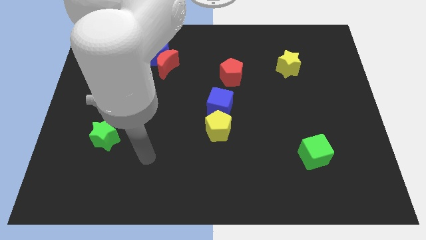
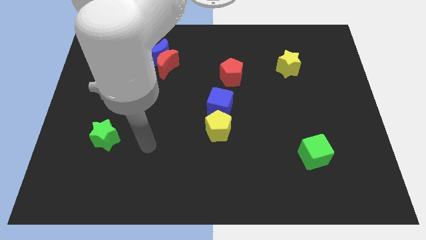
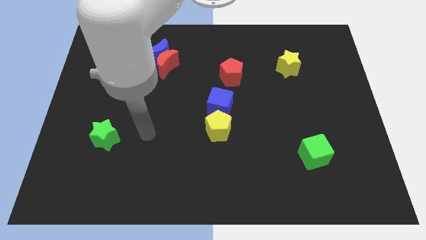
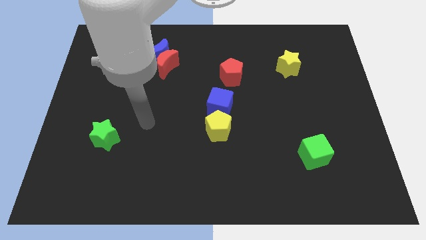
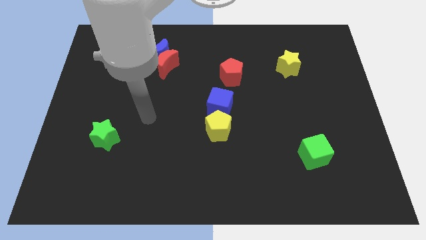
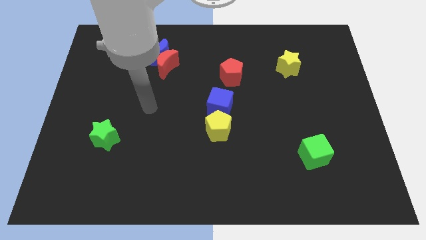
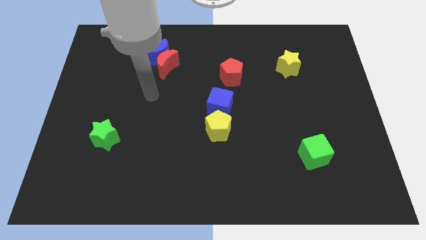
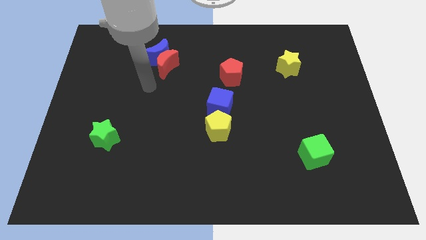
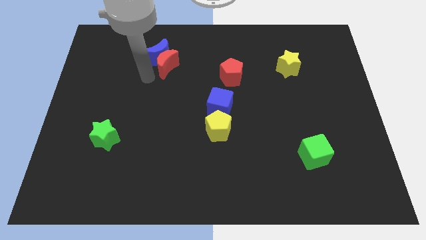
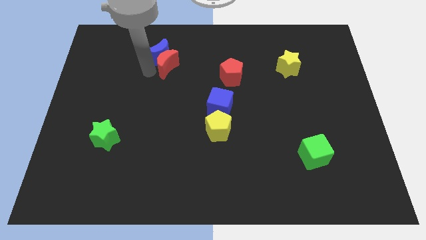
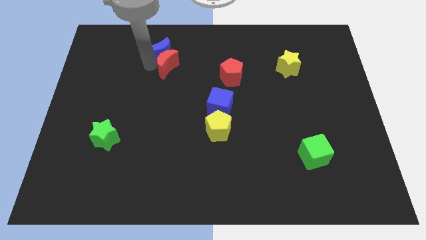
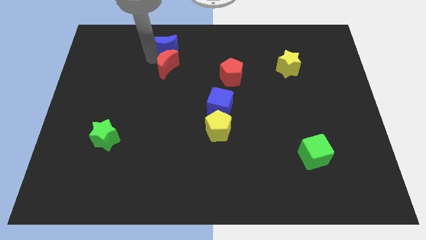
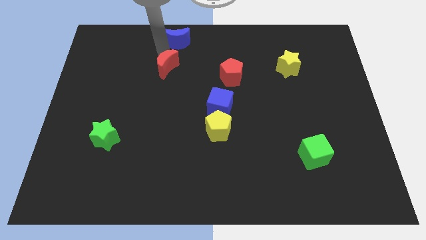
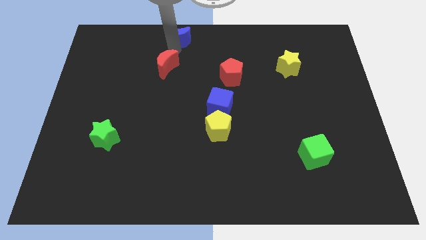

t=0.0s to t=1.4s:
move the red moon away from the blue moon

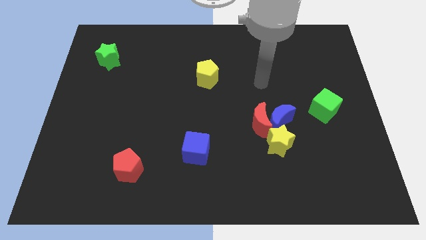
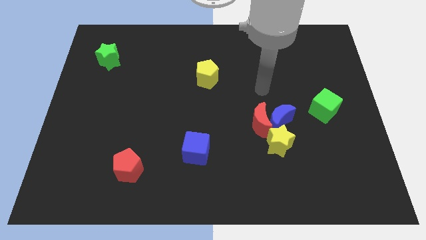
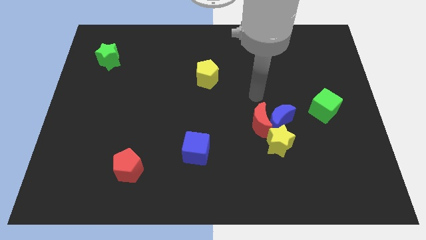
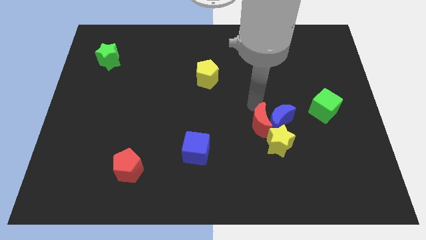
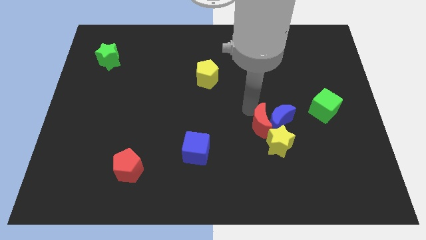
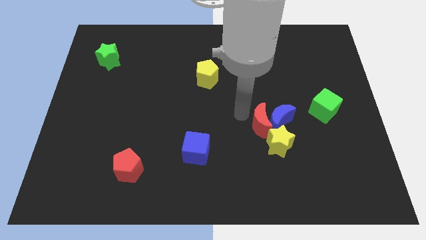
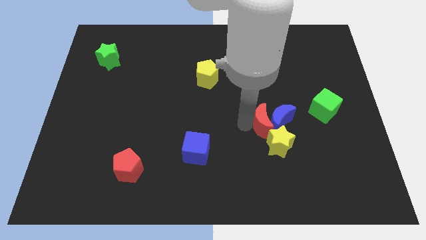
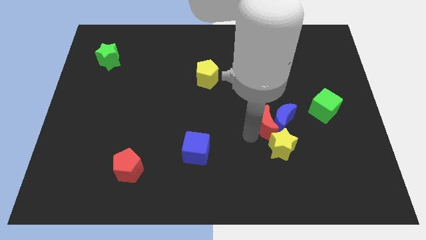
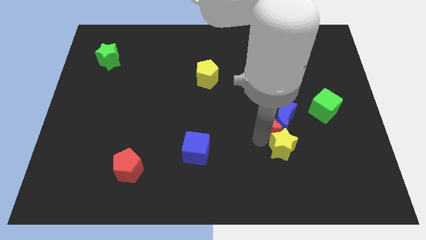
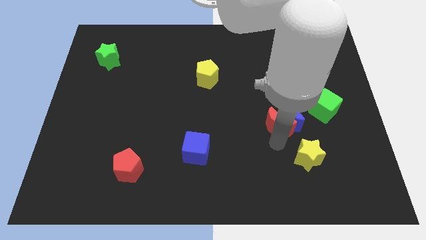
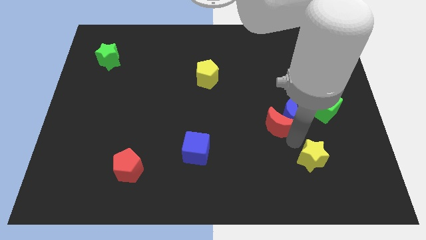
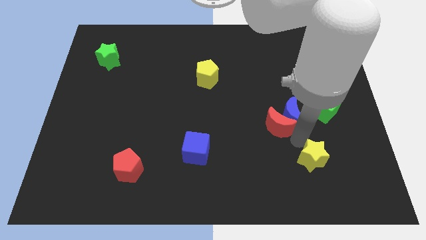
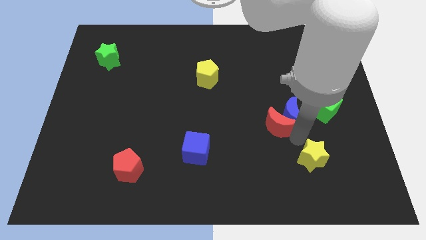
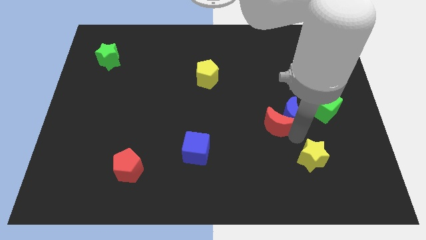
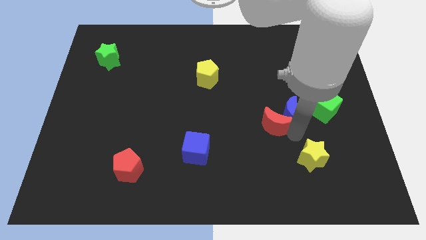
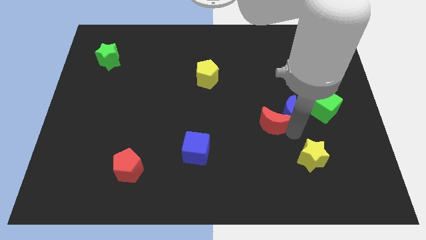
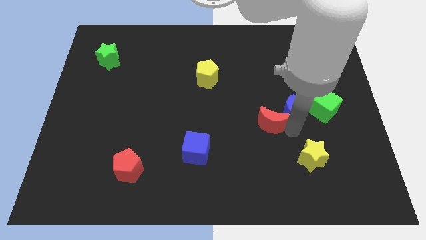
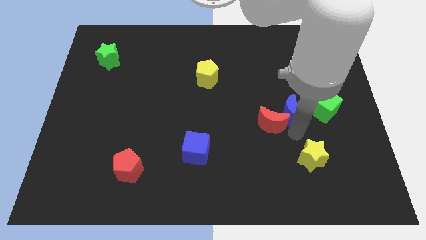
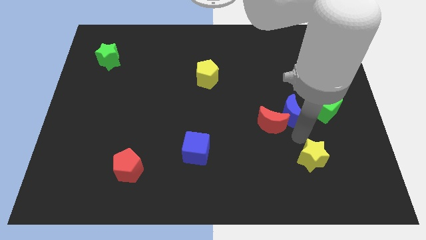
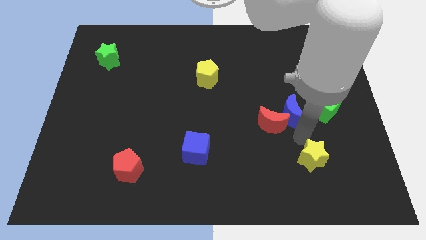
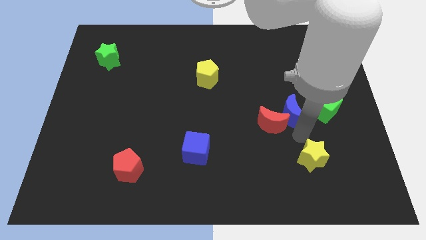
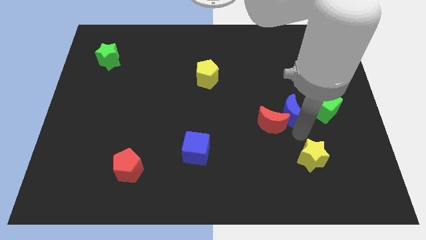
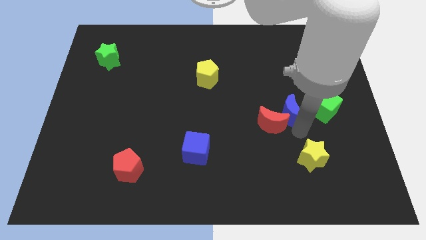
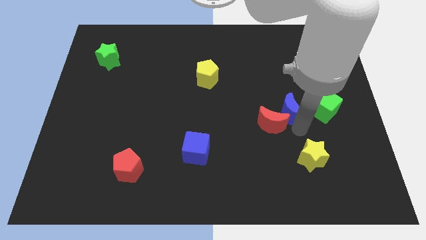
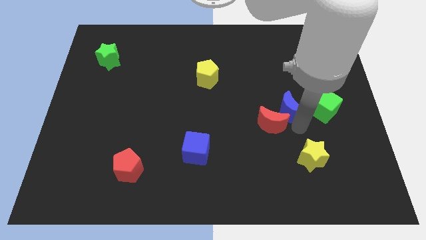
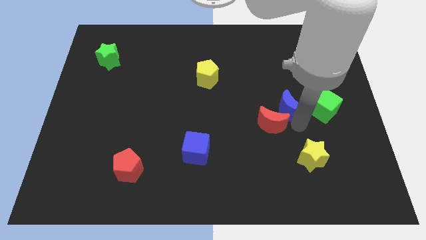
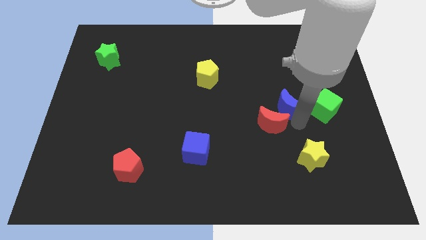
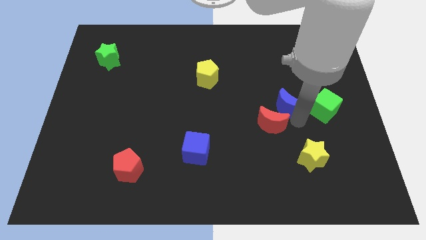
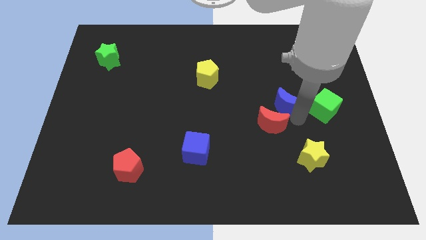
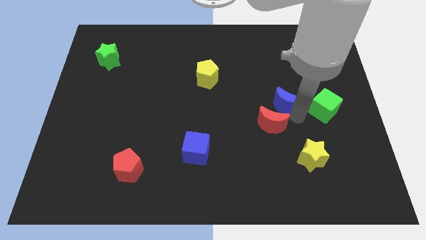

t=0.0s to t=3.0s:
separate the blue moon from the red moon and yellow star

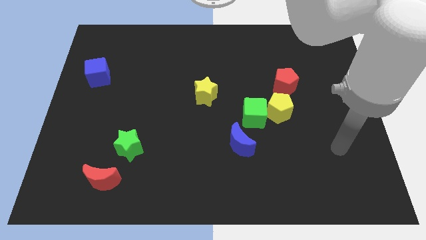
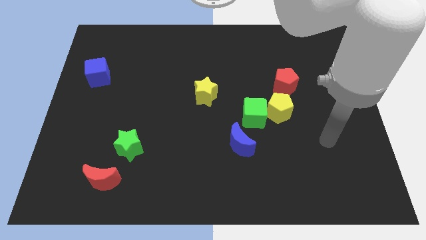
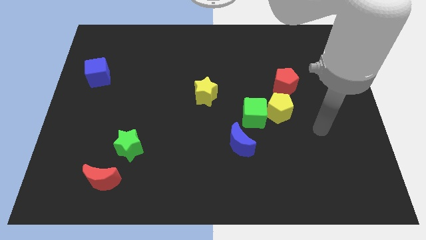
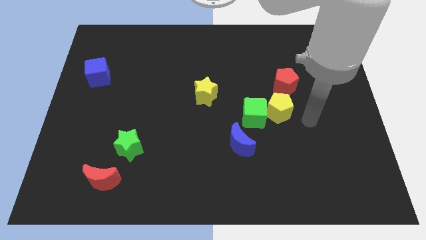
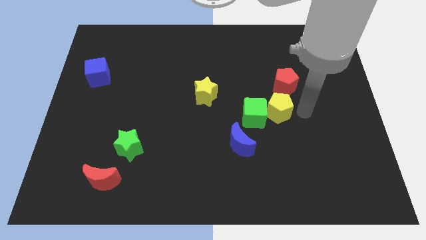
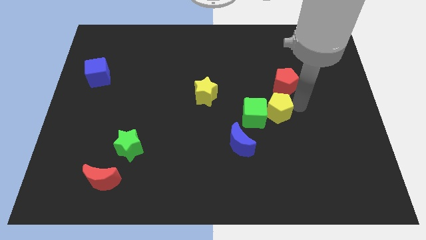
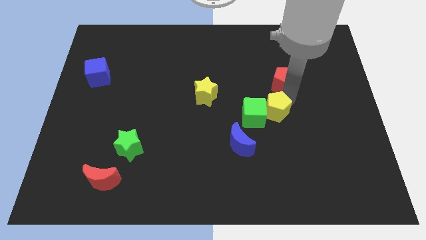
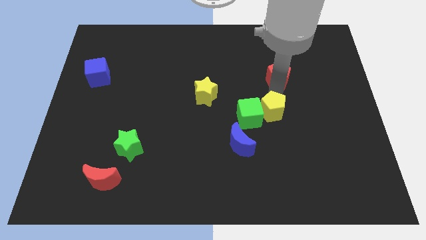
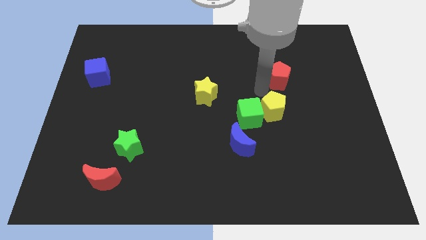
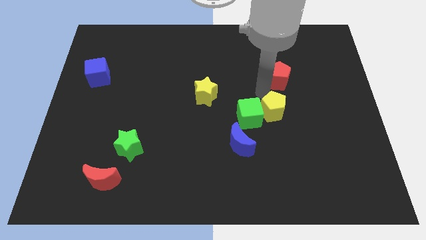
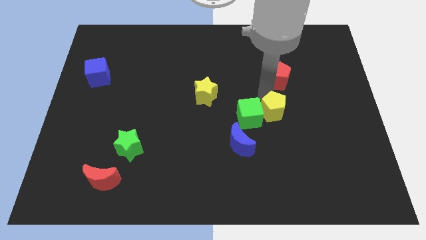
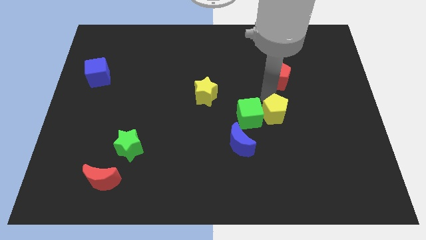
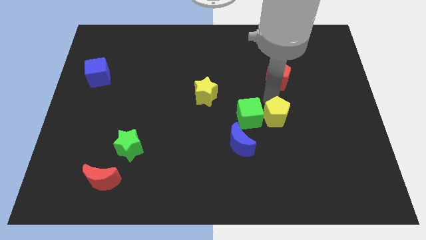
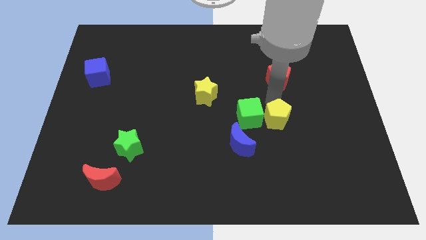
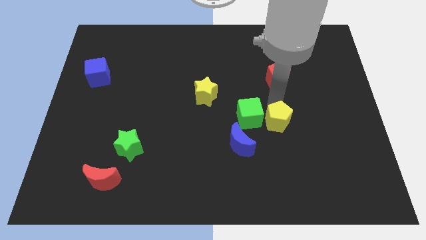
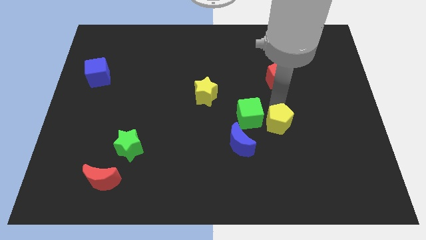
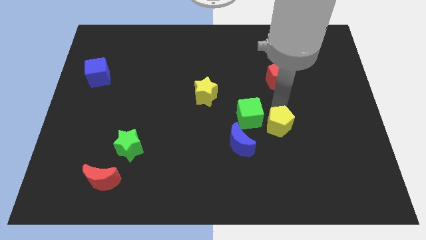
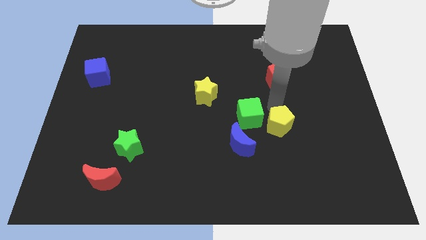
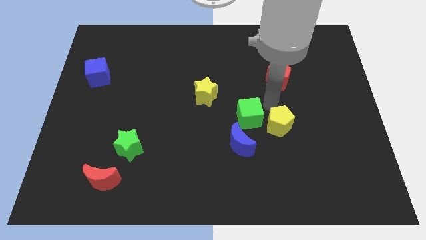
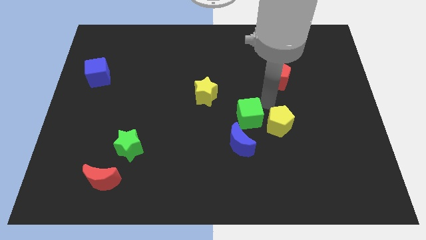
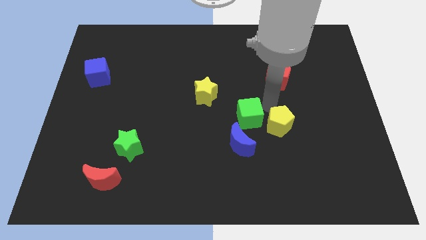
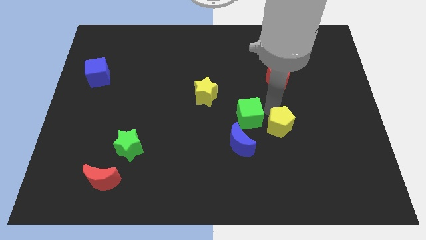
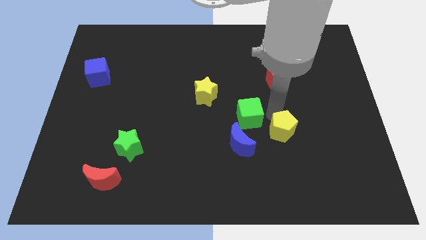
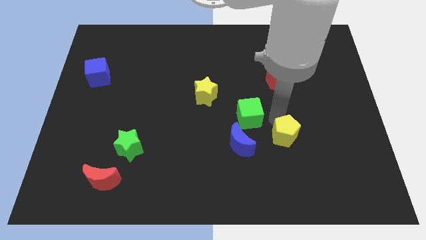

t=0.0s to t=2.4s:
separate the yellow pentagon from the green cube and red pentagon

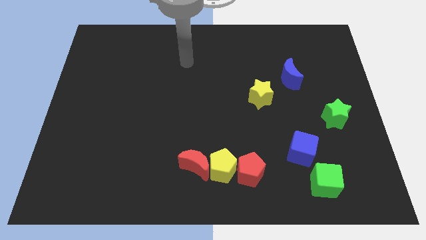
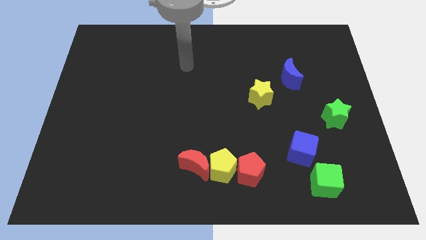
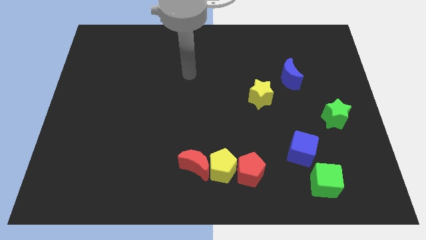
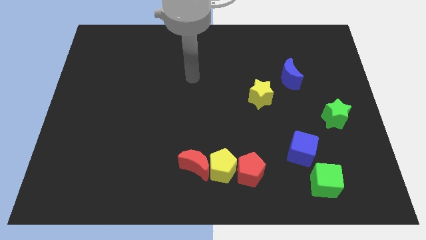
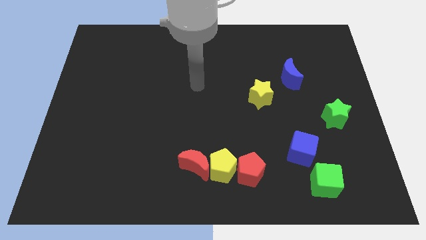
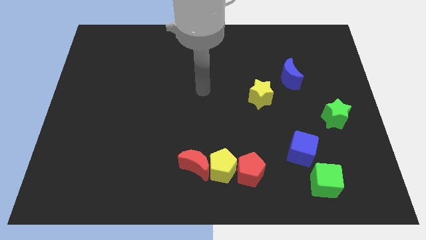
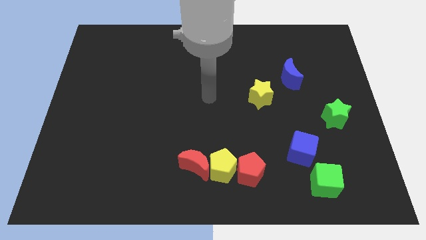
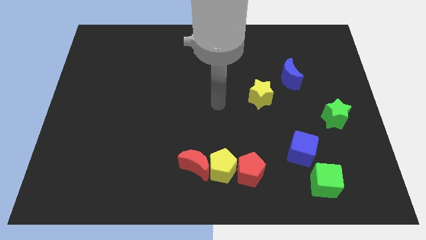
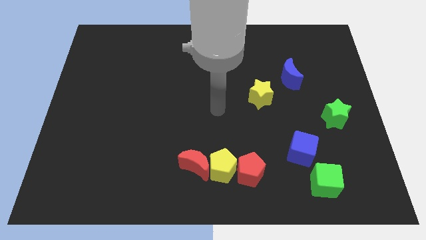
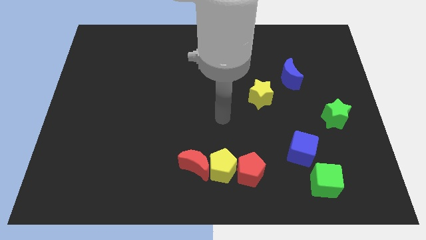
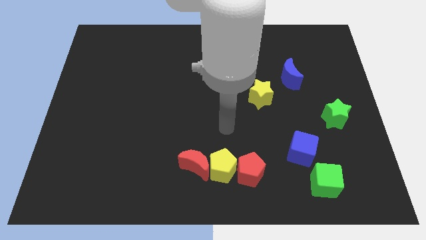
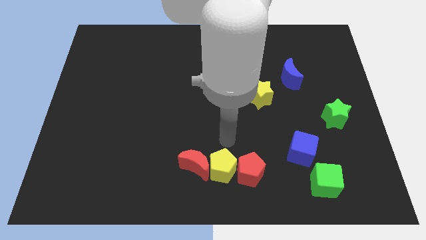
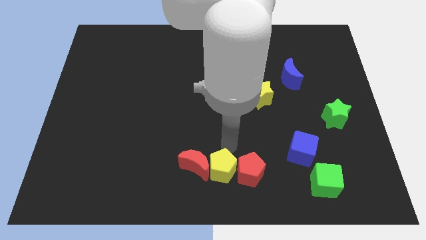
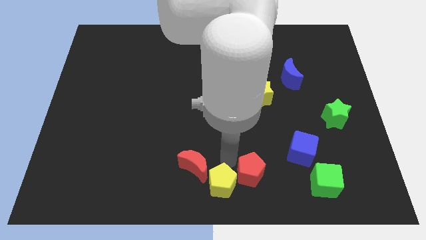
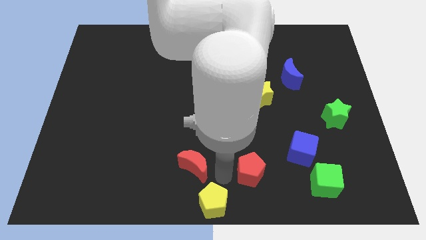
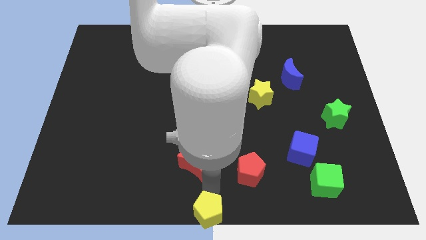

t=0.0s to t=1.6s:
separate the red moon from the yellow pentagon

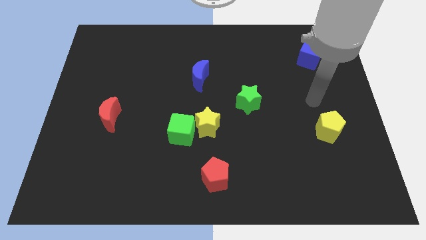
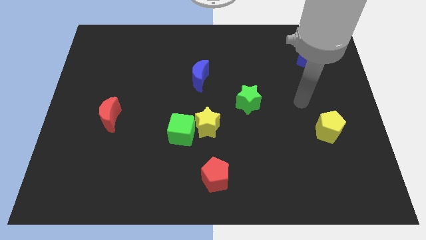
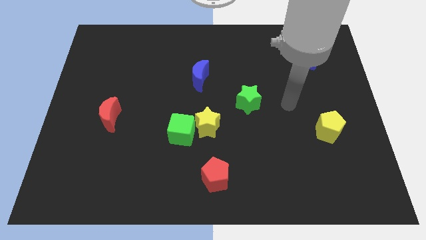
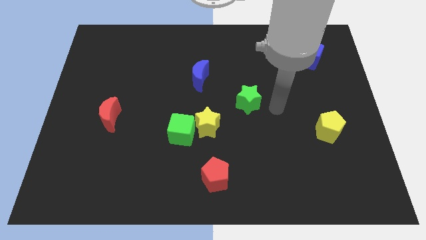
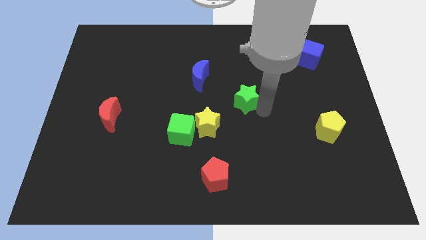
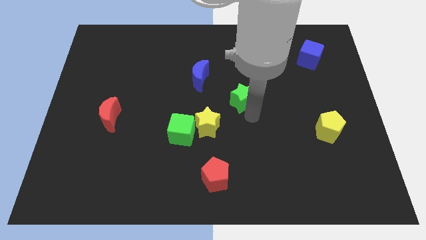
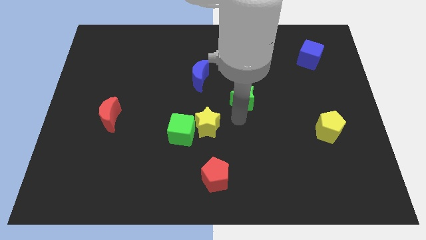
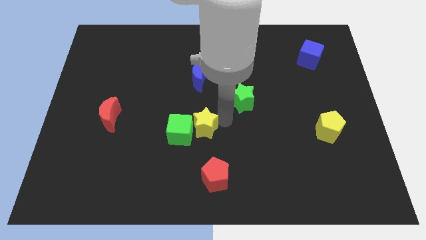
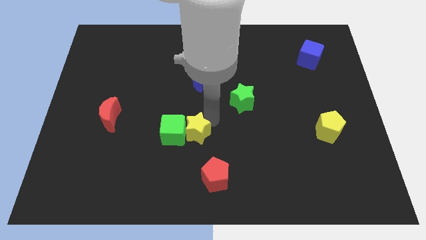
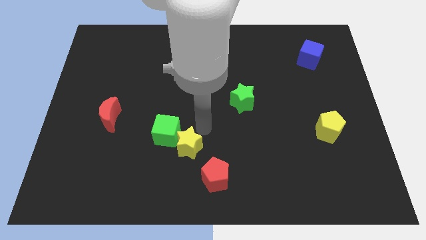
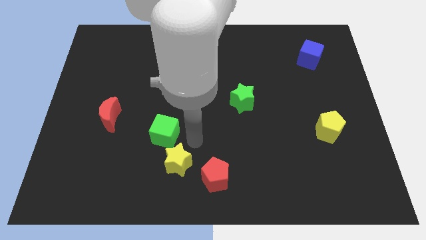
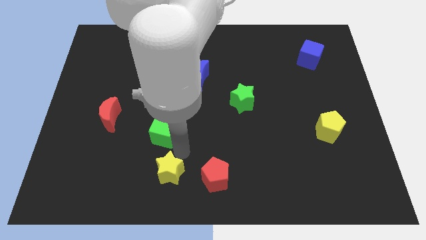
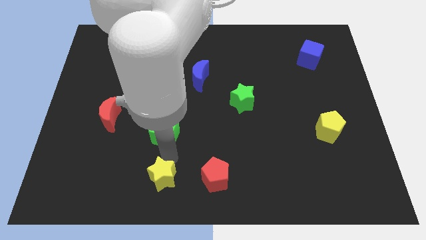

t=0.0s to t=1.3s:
pull the green cube apart from the yellow star
